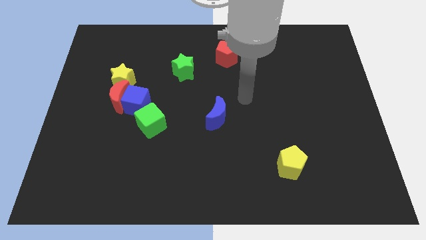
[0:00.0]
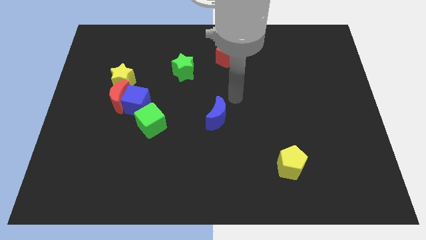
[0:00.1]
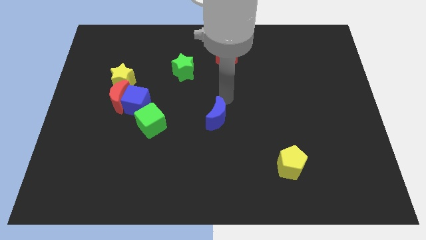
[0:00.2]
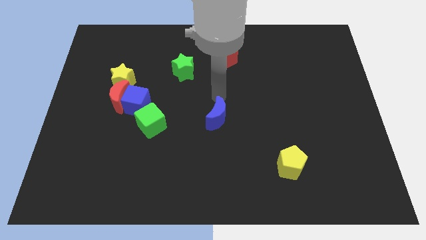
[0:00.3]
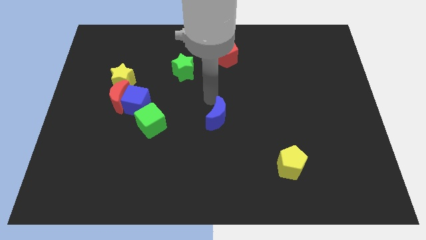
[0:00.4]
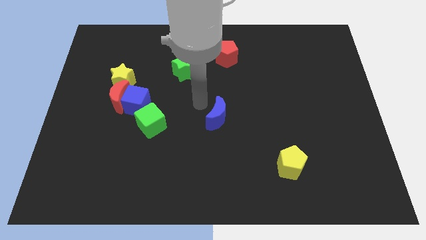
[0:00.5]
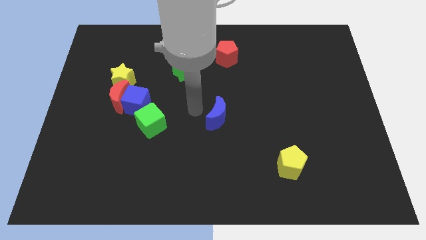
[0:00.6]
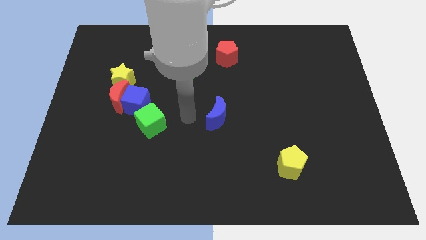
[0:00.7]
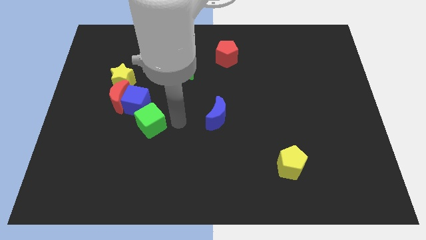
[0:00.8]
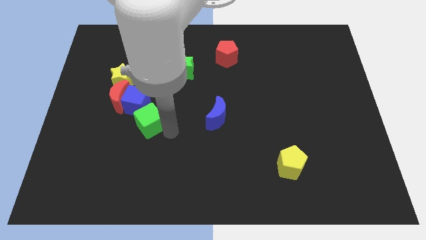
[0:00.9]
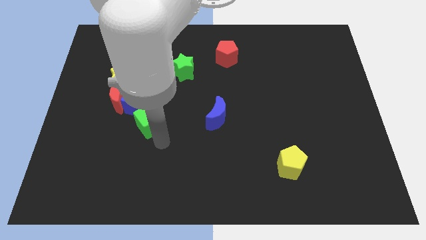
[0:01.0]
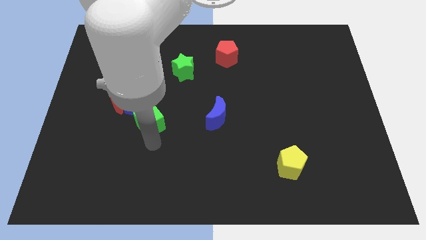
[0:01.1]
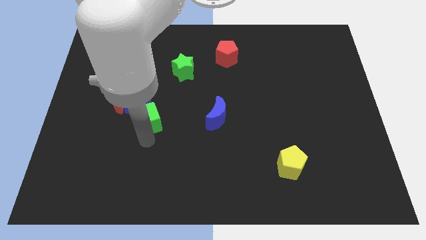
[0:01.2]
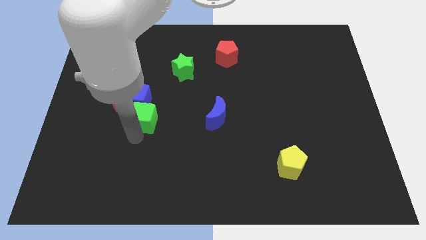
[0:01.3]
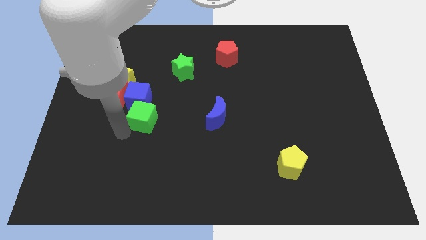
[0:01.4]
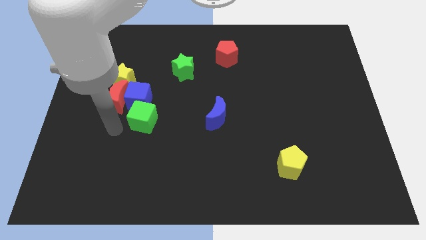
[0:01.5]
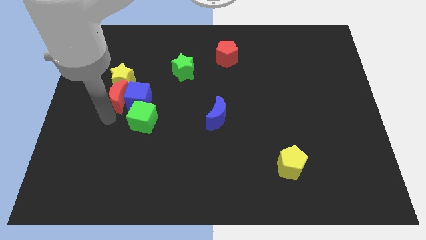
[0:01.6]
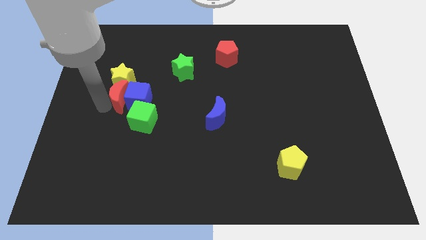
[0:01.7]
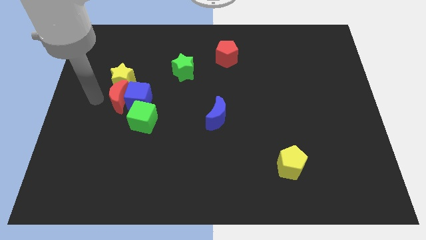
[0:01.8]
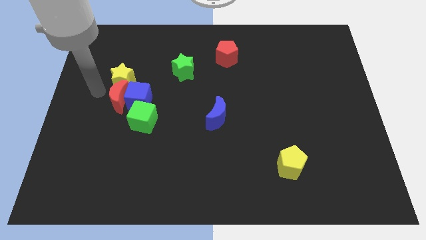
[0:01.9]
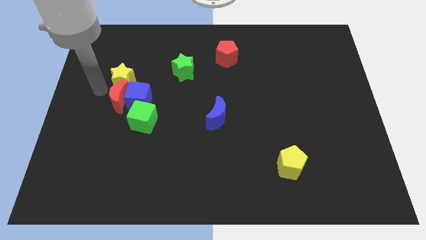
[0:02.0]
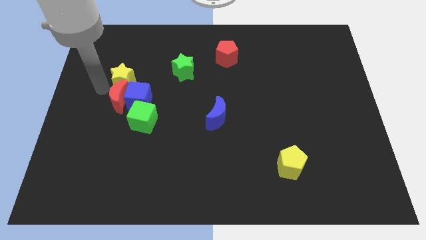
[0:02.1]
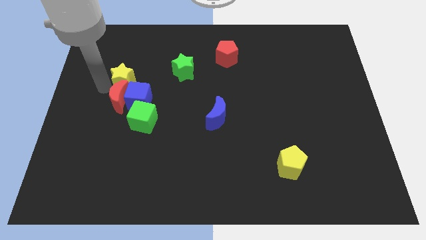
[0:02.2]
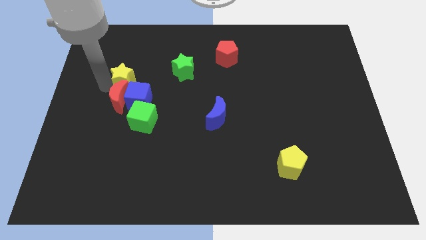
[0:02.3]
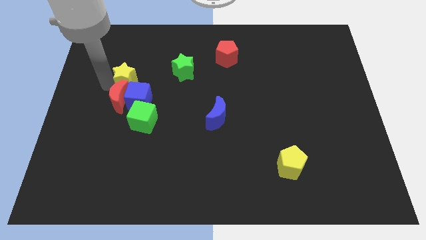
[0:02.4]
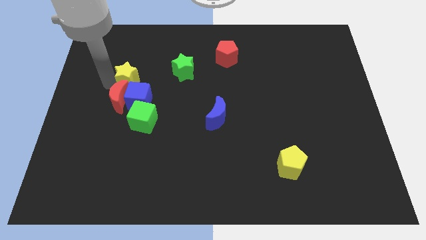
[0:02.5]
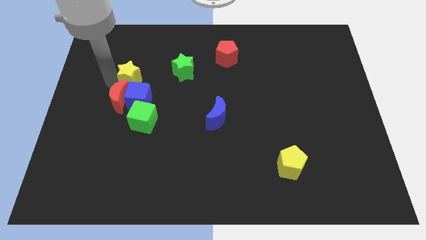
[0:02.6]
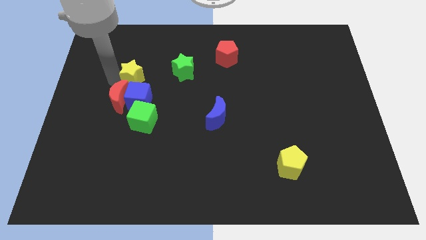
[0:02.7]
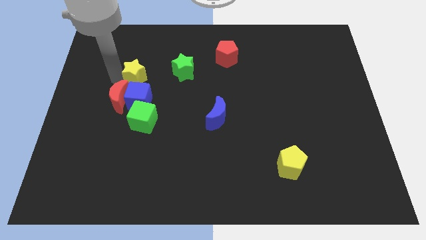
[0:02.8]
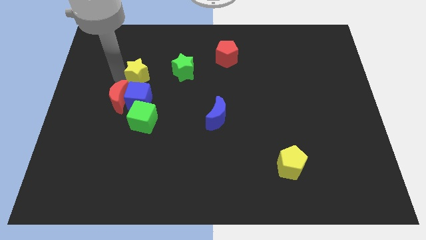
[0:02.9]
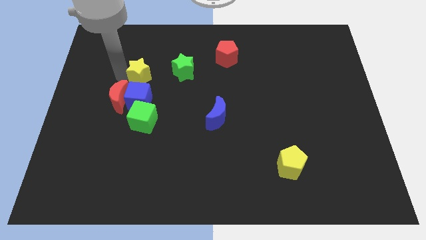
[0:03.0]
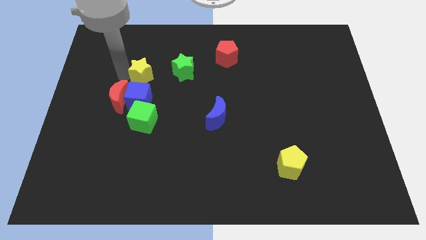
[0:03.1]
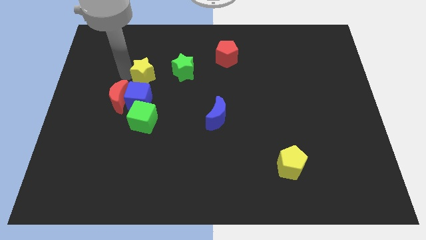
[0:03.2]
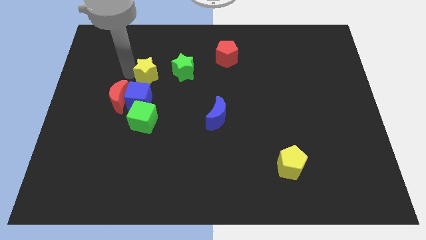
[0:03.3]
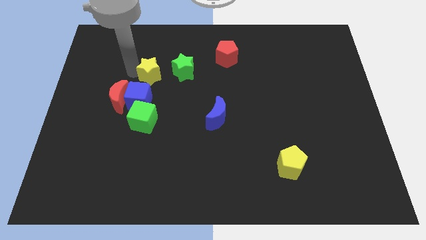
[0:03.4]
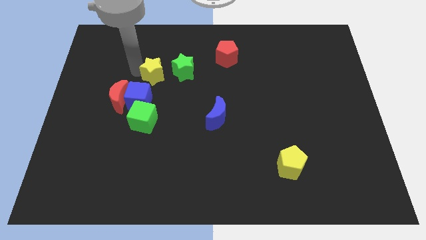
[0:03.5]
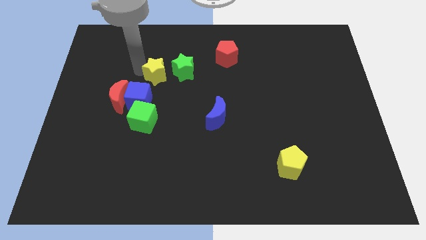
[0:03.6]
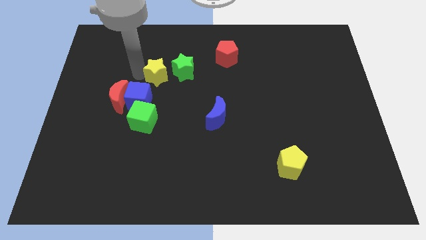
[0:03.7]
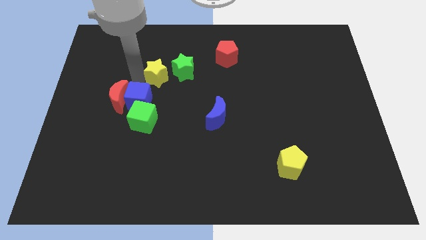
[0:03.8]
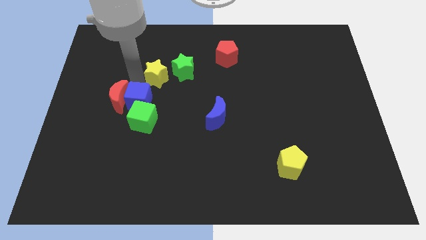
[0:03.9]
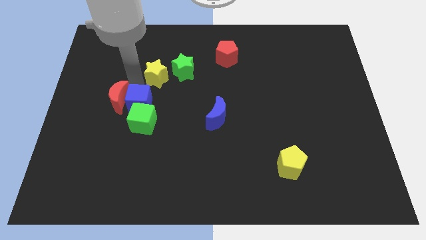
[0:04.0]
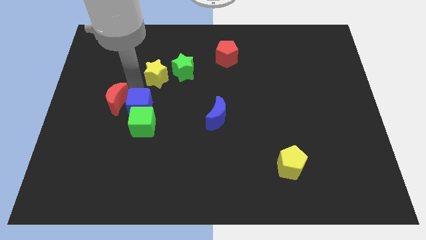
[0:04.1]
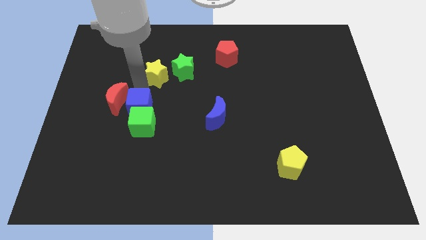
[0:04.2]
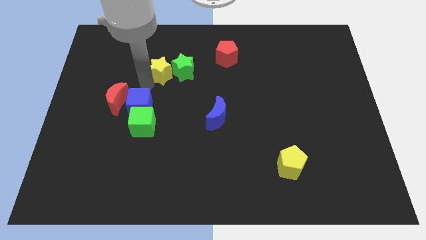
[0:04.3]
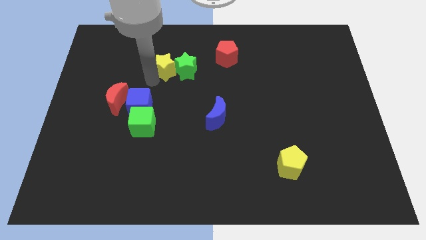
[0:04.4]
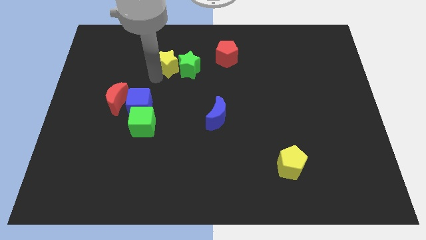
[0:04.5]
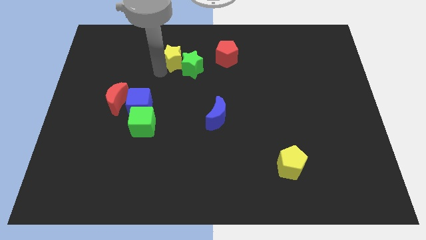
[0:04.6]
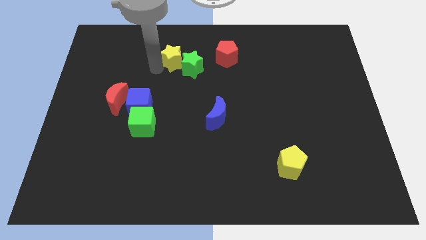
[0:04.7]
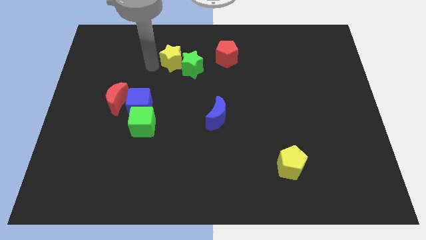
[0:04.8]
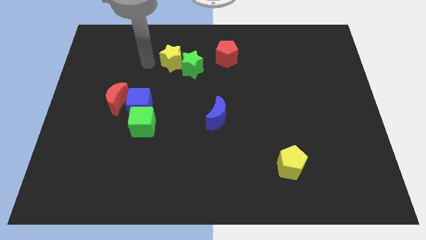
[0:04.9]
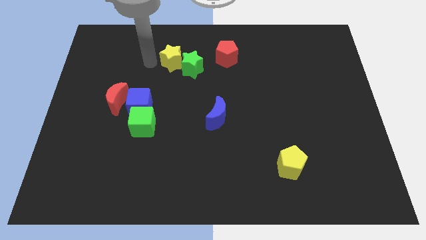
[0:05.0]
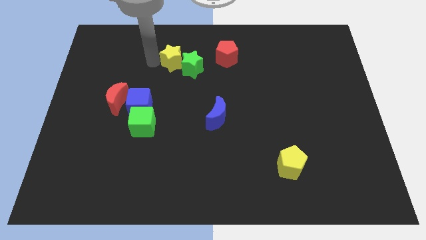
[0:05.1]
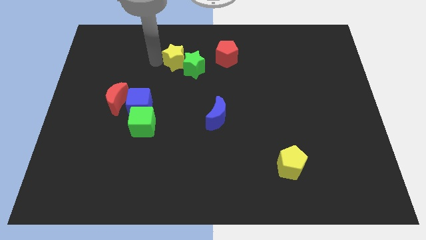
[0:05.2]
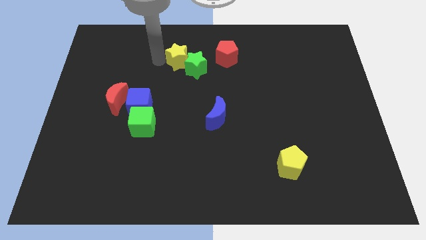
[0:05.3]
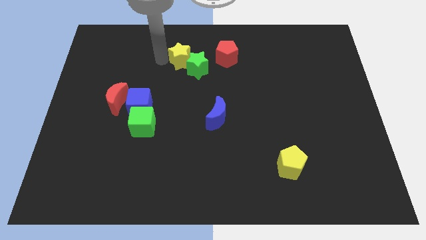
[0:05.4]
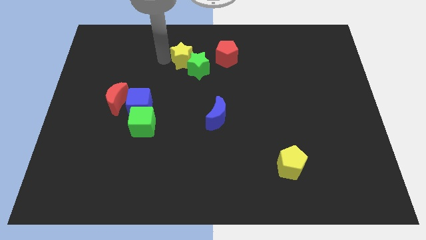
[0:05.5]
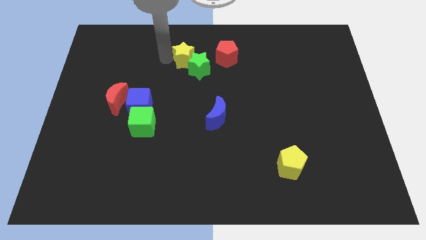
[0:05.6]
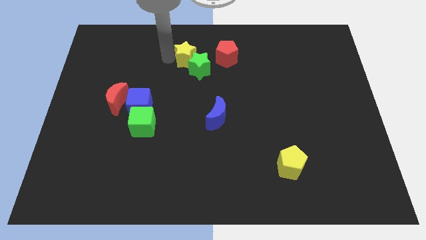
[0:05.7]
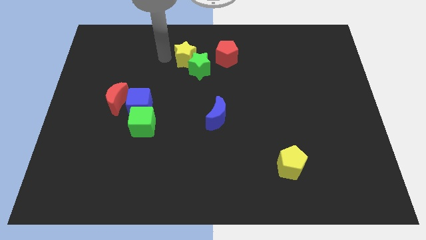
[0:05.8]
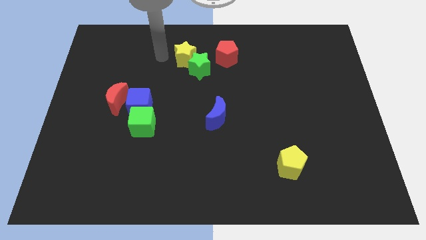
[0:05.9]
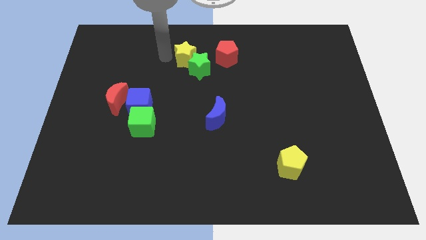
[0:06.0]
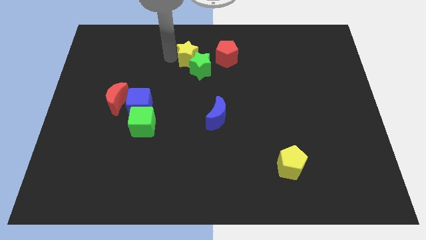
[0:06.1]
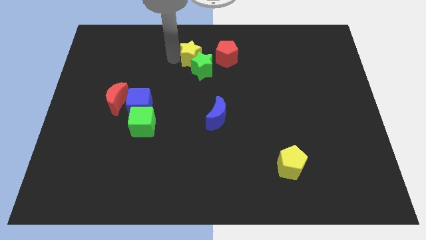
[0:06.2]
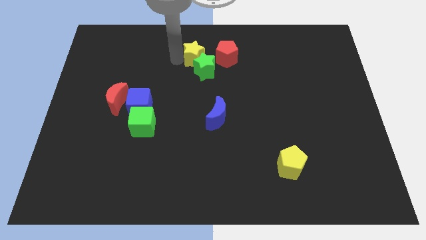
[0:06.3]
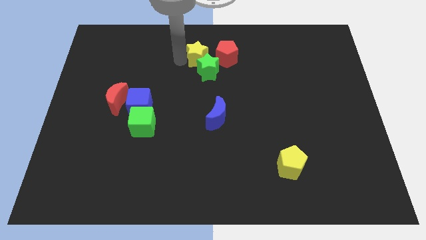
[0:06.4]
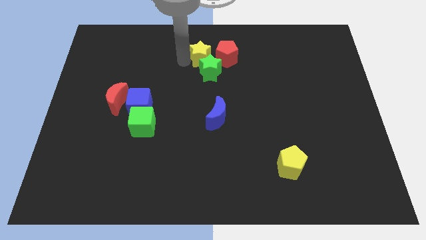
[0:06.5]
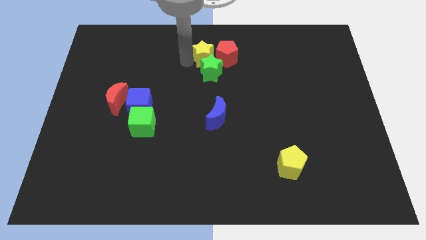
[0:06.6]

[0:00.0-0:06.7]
slide the yellow star to the red pentagon
